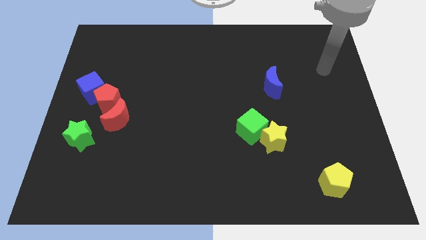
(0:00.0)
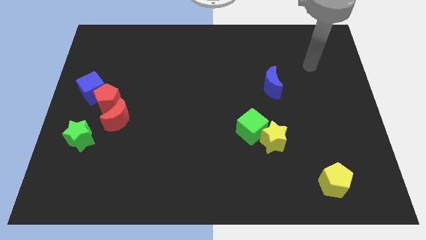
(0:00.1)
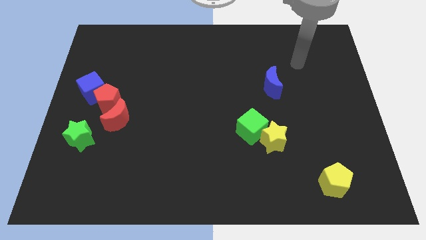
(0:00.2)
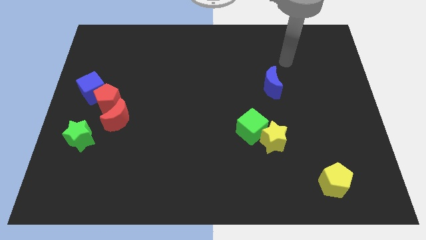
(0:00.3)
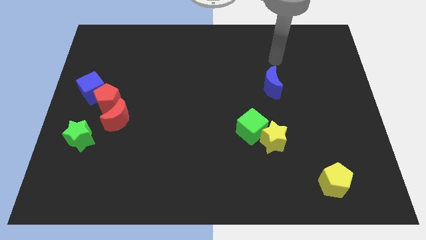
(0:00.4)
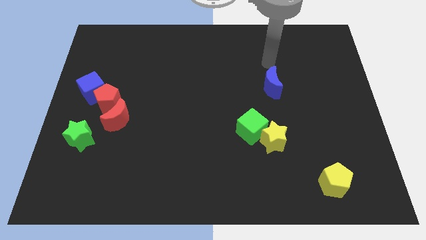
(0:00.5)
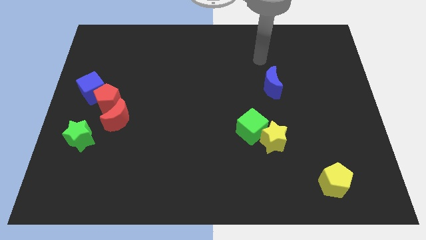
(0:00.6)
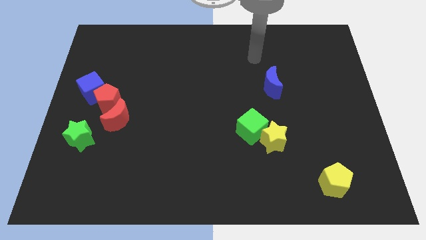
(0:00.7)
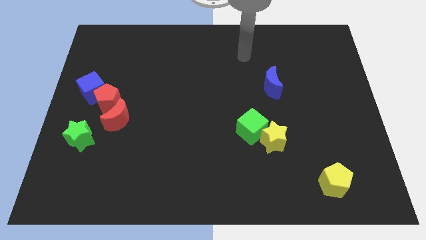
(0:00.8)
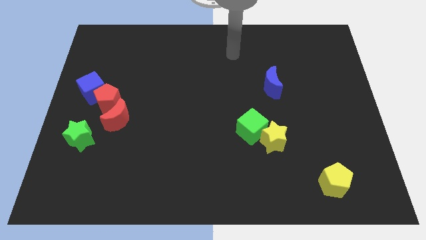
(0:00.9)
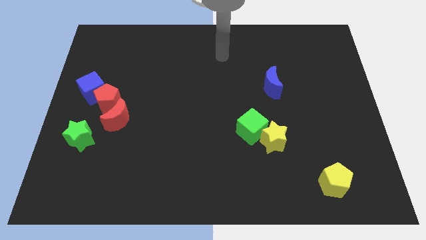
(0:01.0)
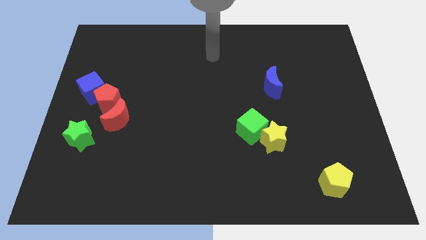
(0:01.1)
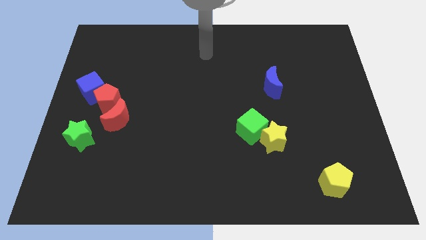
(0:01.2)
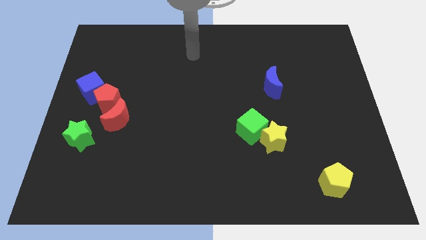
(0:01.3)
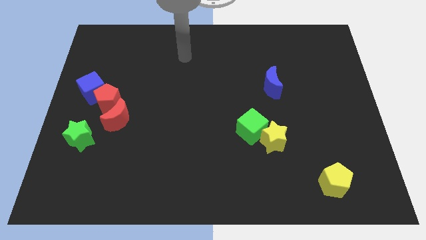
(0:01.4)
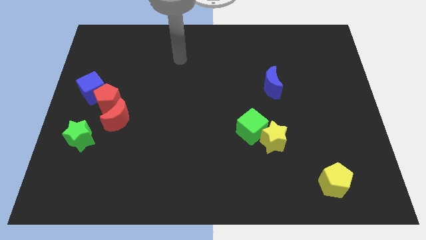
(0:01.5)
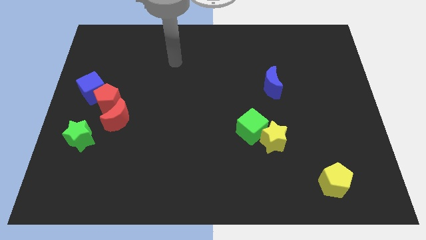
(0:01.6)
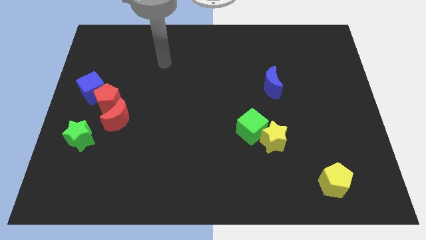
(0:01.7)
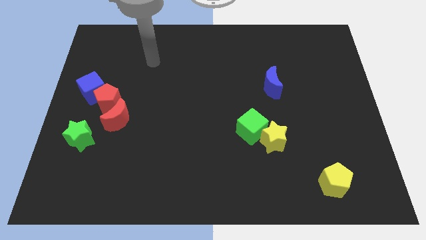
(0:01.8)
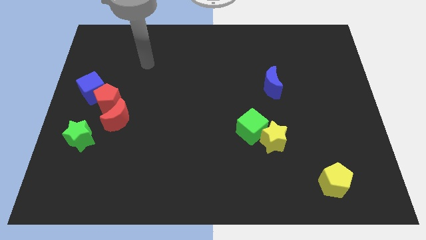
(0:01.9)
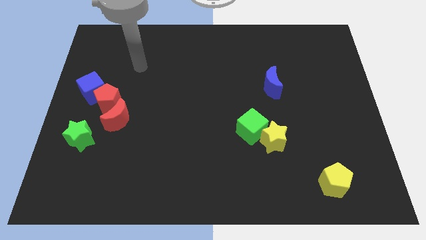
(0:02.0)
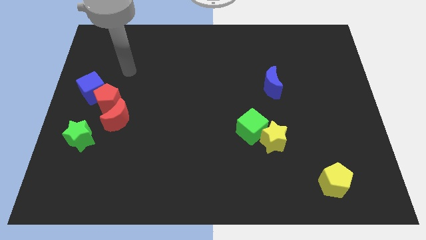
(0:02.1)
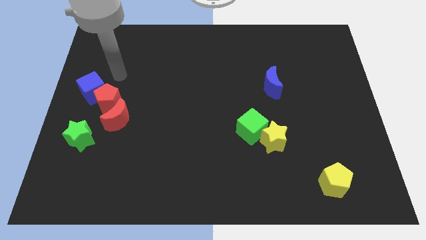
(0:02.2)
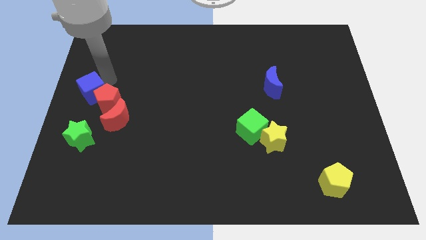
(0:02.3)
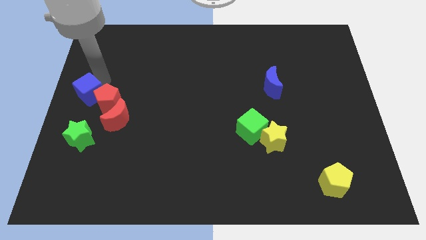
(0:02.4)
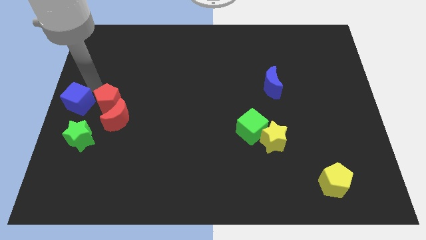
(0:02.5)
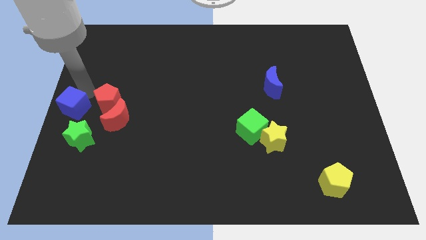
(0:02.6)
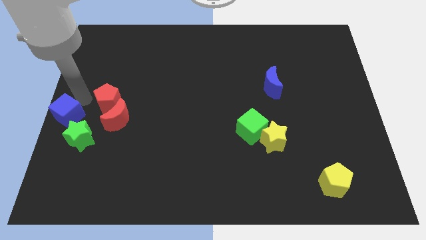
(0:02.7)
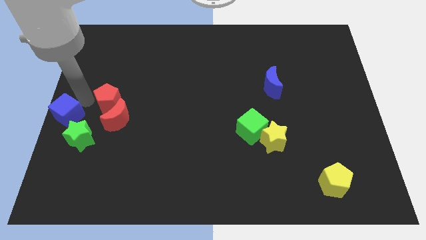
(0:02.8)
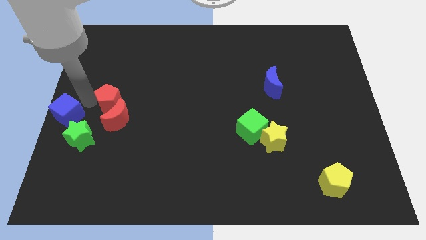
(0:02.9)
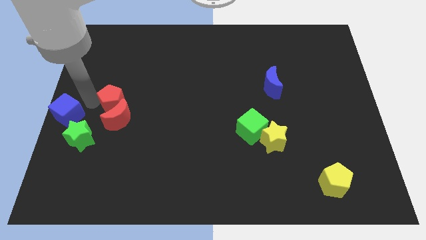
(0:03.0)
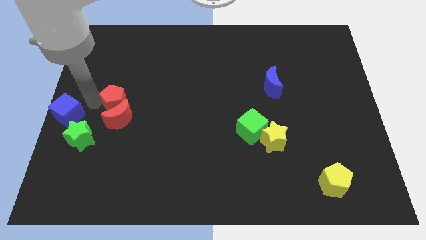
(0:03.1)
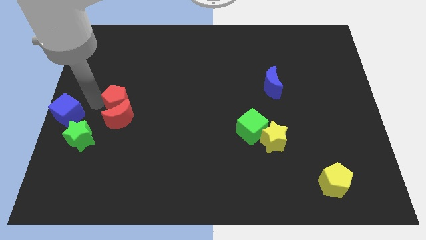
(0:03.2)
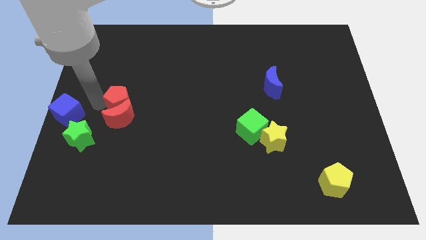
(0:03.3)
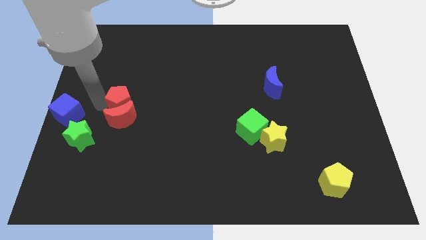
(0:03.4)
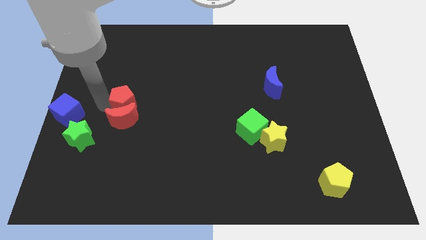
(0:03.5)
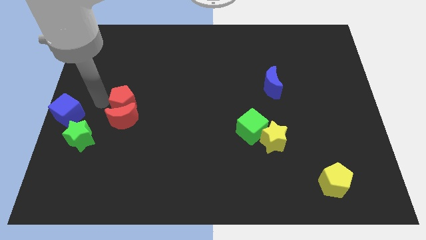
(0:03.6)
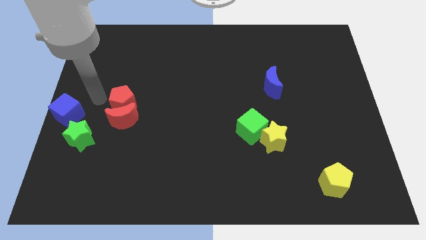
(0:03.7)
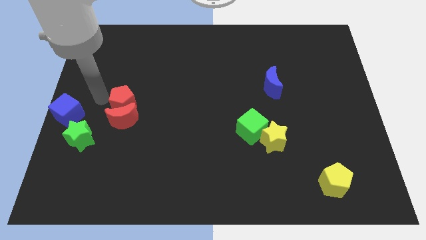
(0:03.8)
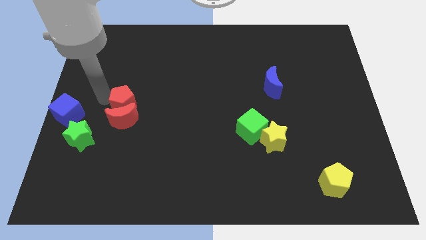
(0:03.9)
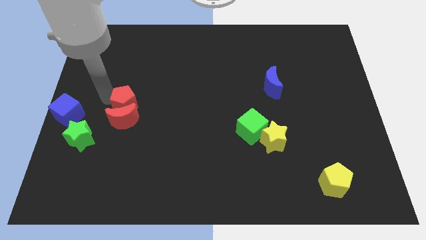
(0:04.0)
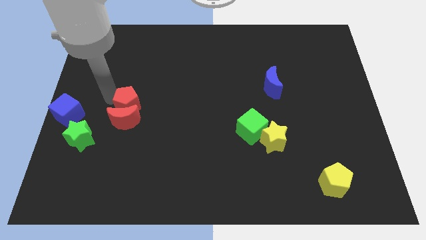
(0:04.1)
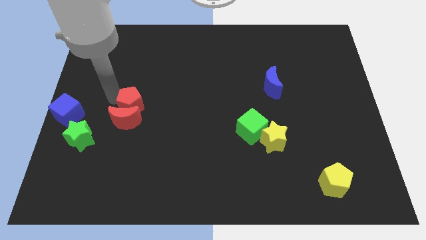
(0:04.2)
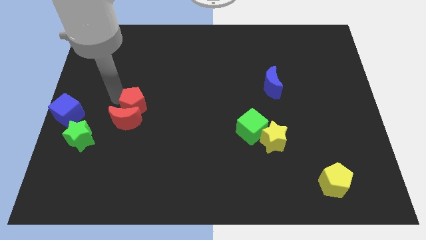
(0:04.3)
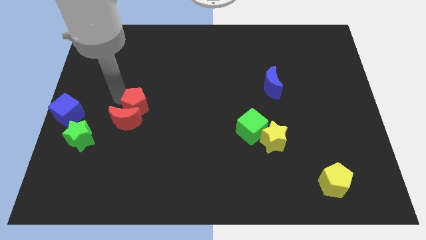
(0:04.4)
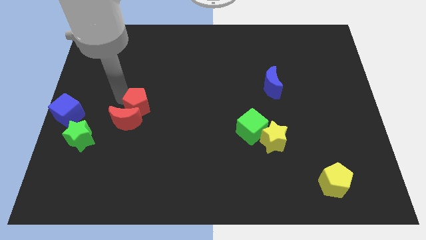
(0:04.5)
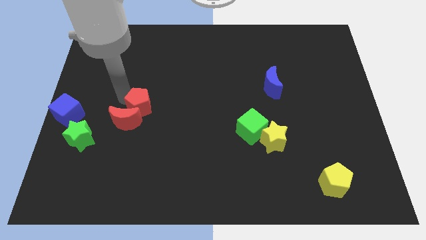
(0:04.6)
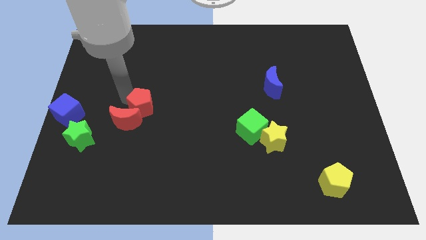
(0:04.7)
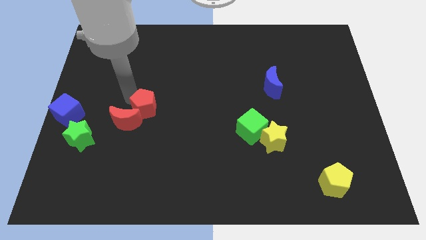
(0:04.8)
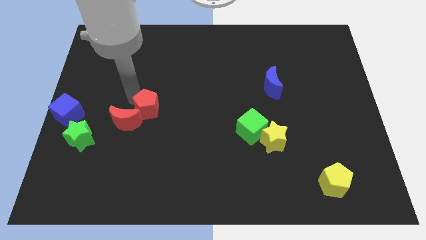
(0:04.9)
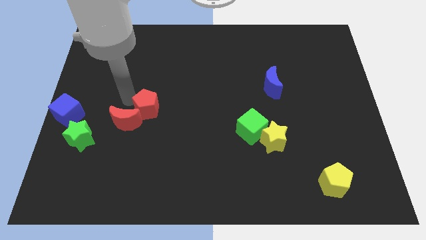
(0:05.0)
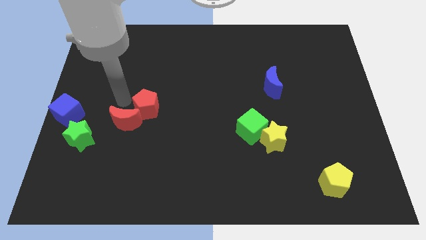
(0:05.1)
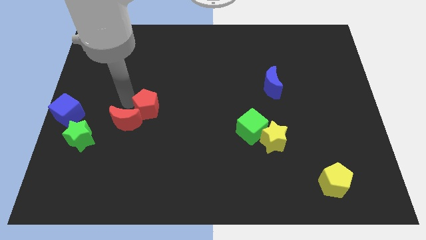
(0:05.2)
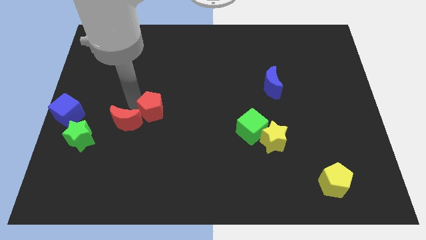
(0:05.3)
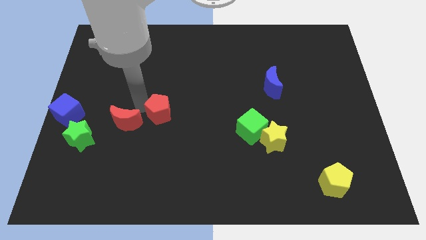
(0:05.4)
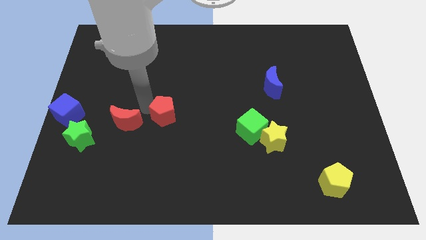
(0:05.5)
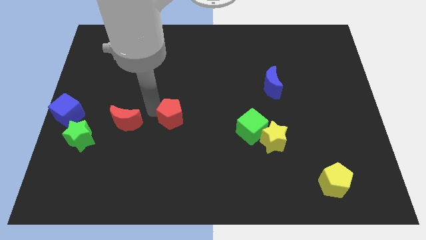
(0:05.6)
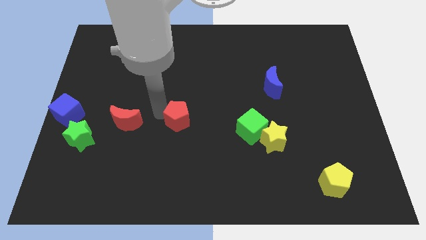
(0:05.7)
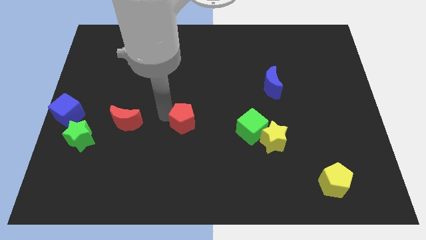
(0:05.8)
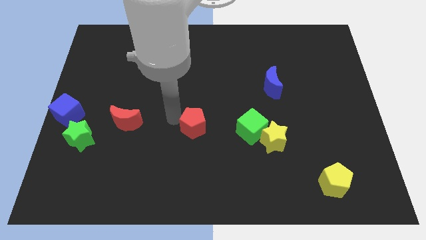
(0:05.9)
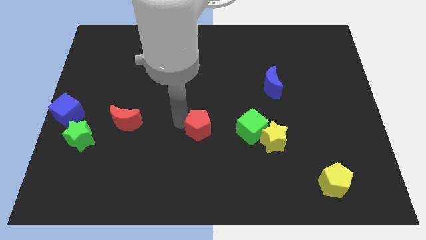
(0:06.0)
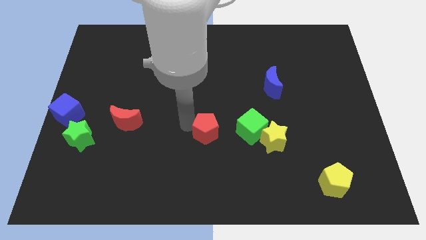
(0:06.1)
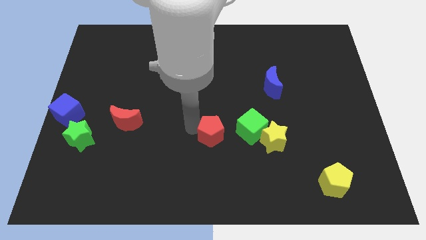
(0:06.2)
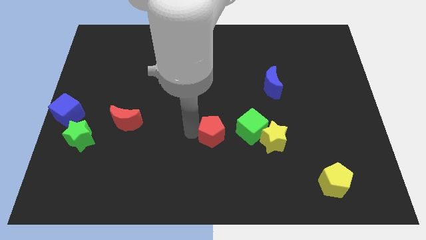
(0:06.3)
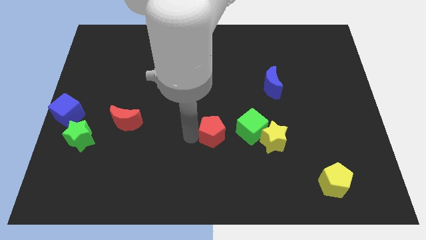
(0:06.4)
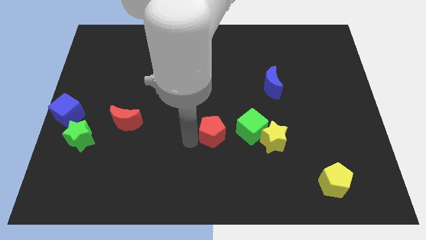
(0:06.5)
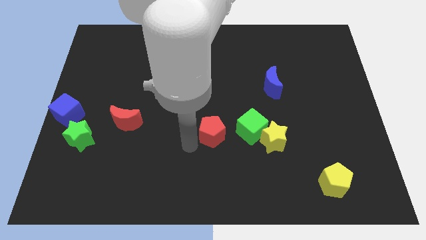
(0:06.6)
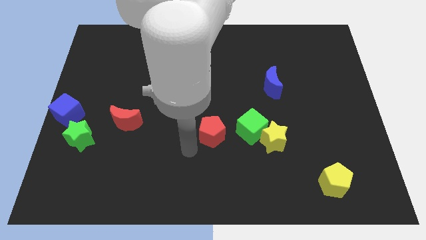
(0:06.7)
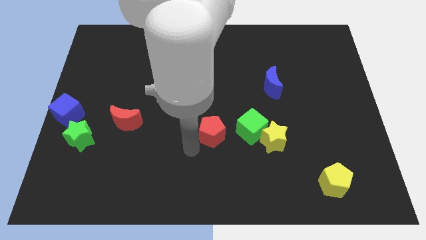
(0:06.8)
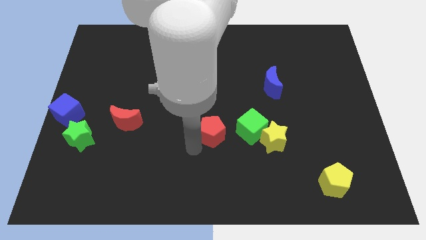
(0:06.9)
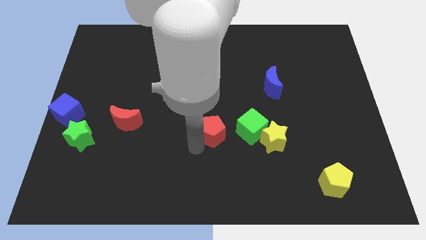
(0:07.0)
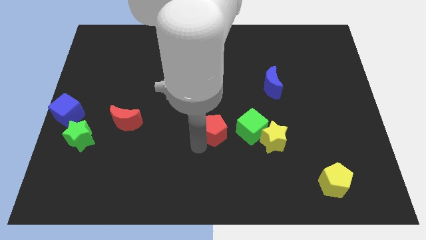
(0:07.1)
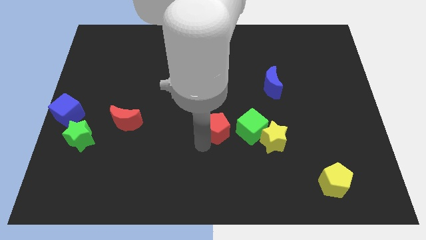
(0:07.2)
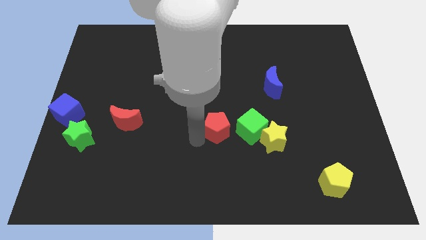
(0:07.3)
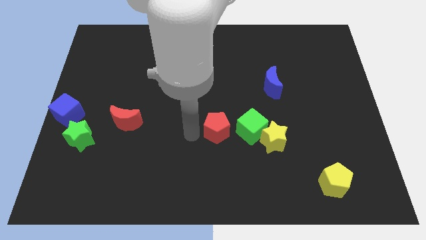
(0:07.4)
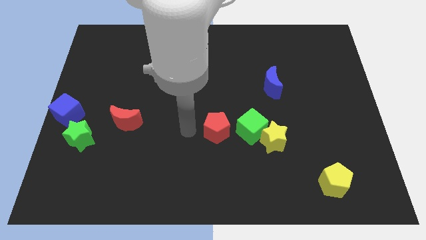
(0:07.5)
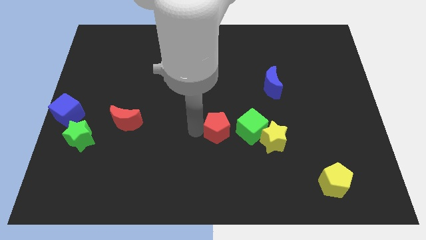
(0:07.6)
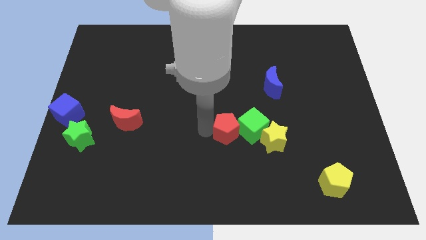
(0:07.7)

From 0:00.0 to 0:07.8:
slide the red pentagon next to the green cube
